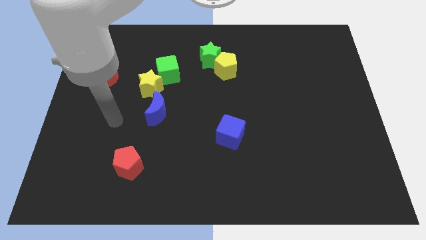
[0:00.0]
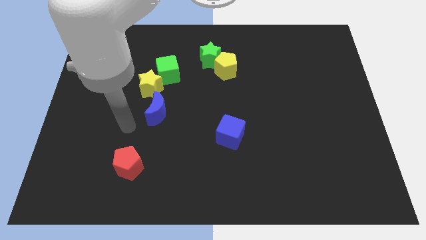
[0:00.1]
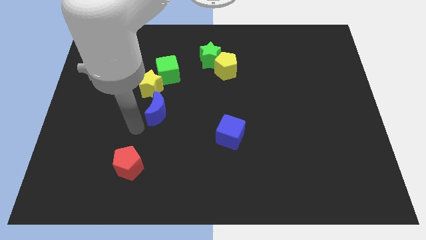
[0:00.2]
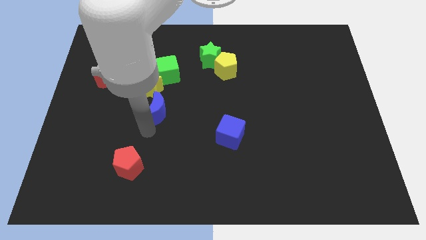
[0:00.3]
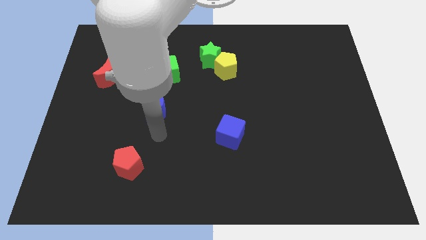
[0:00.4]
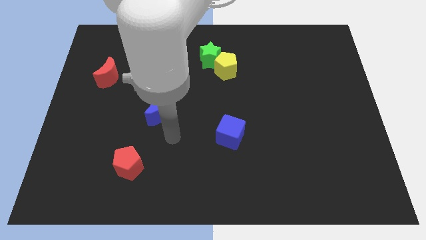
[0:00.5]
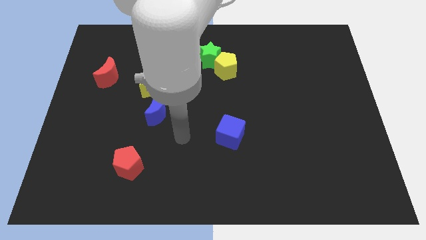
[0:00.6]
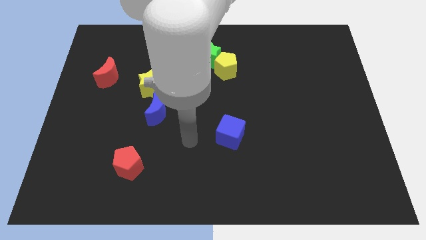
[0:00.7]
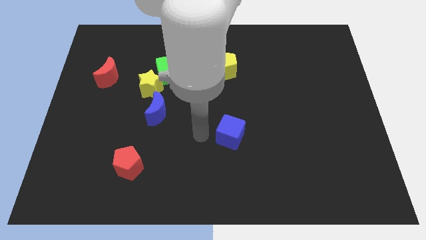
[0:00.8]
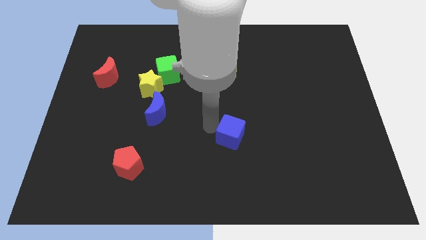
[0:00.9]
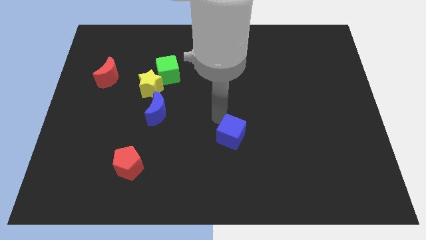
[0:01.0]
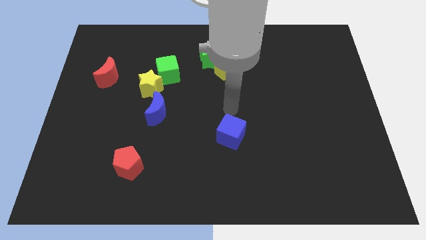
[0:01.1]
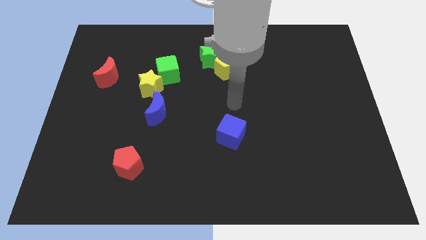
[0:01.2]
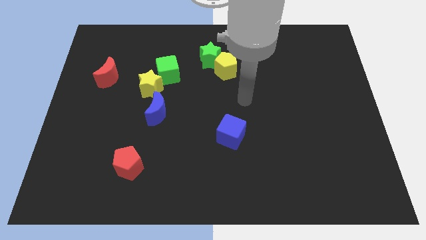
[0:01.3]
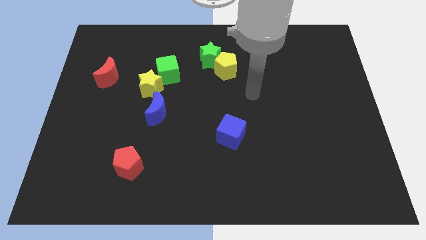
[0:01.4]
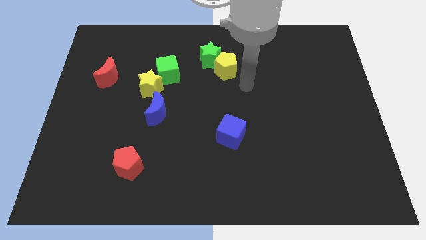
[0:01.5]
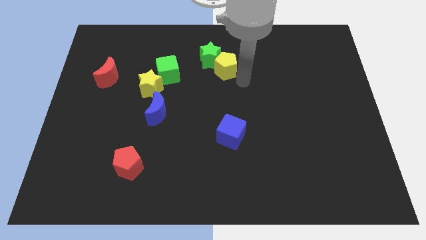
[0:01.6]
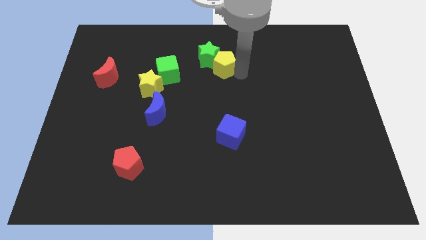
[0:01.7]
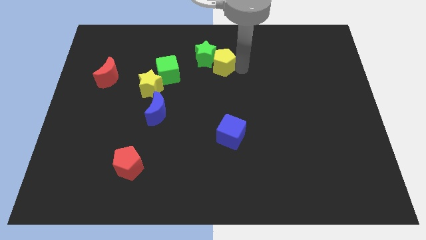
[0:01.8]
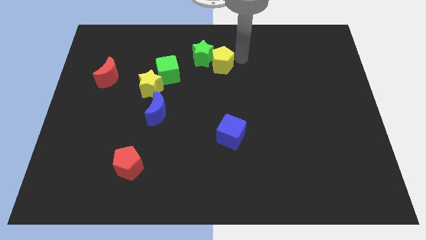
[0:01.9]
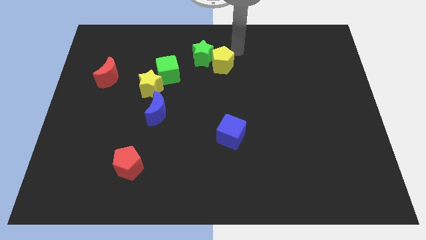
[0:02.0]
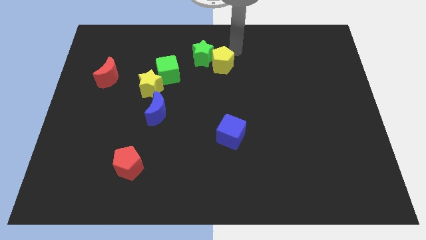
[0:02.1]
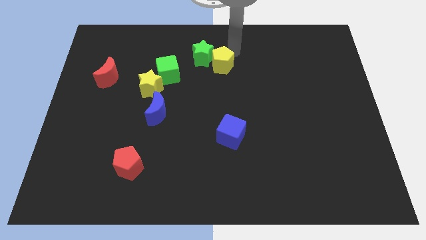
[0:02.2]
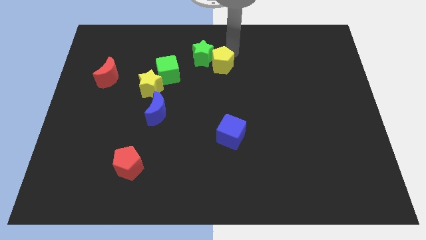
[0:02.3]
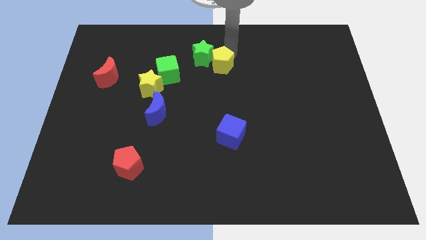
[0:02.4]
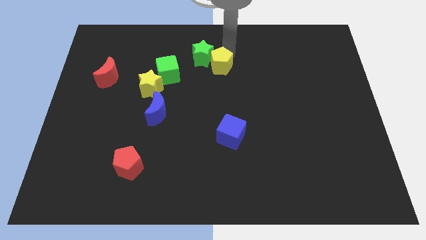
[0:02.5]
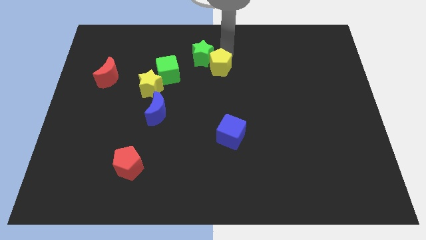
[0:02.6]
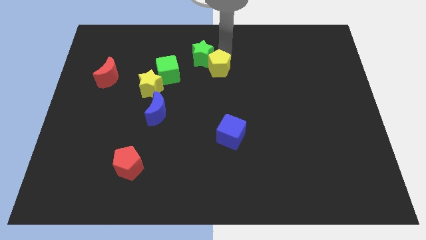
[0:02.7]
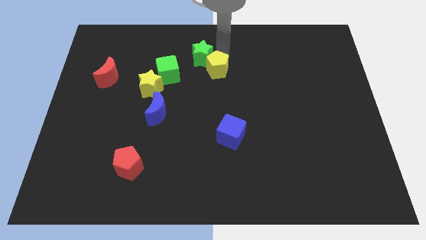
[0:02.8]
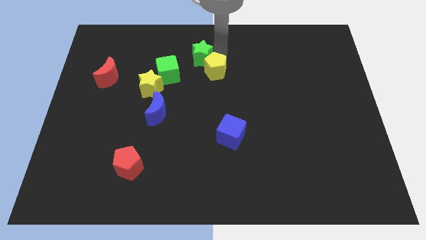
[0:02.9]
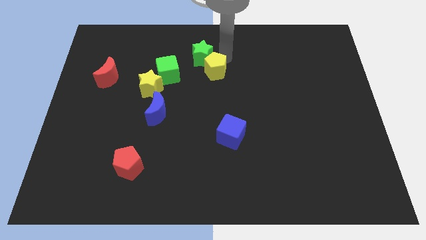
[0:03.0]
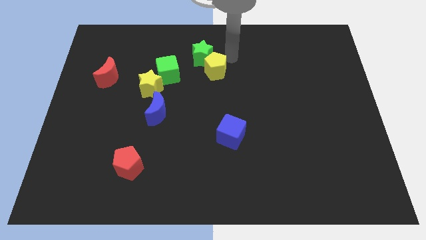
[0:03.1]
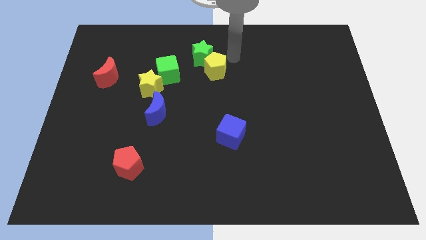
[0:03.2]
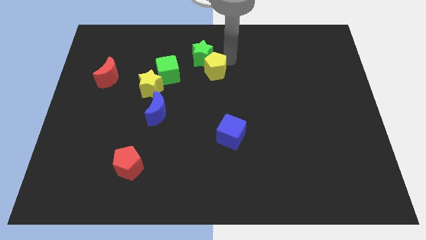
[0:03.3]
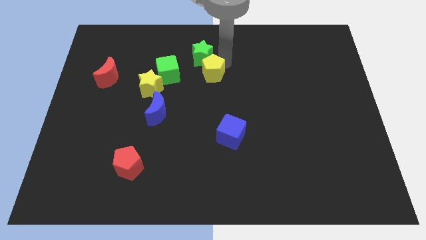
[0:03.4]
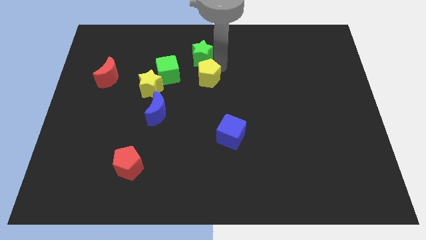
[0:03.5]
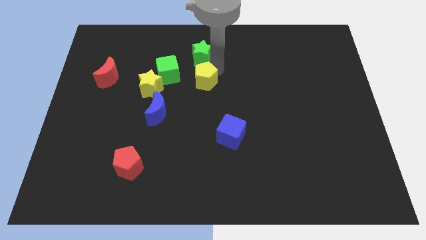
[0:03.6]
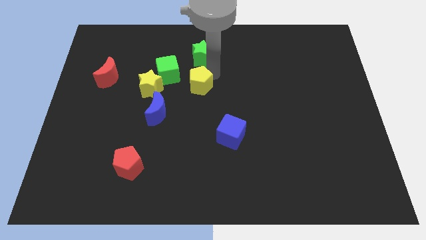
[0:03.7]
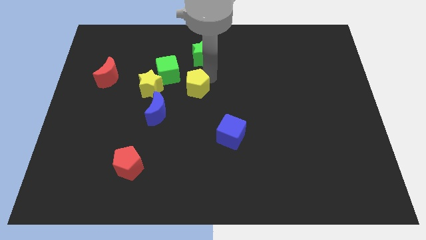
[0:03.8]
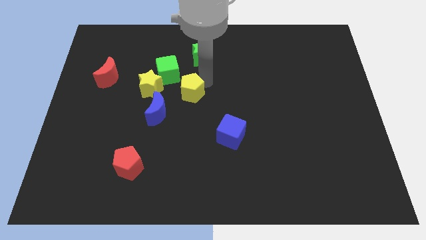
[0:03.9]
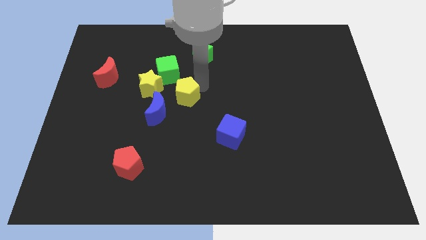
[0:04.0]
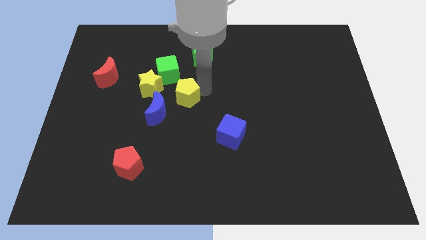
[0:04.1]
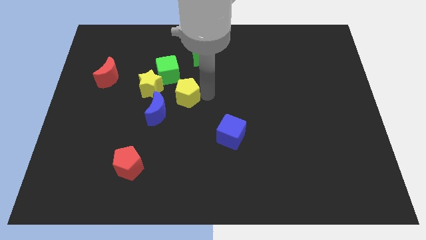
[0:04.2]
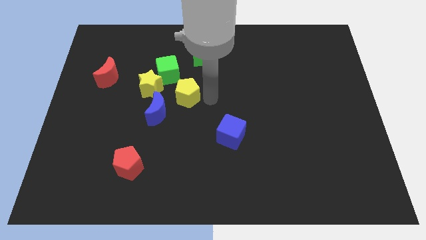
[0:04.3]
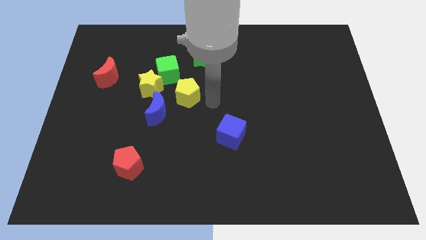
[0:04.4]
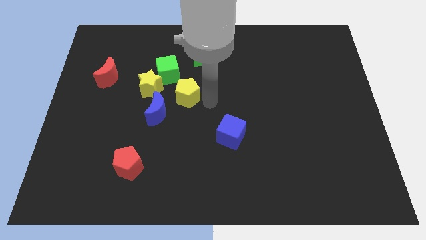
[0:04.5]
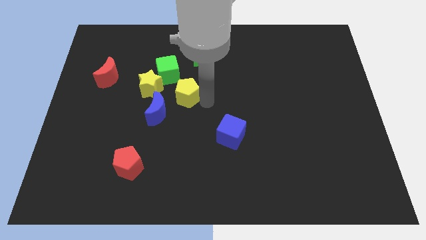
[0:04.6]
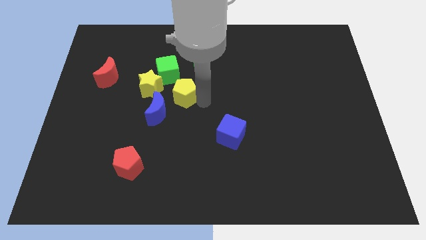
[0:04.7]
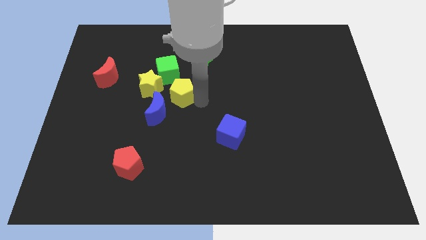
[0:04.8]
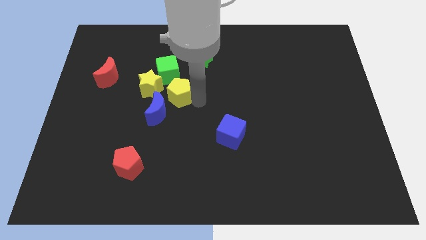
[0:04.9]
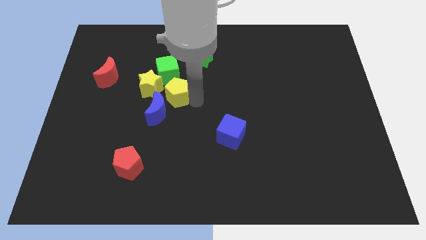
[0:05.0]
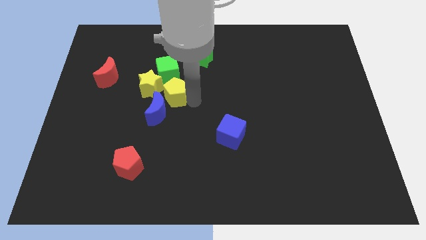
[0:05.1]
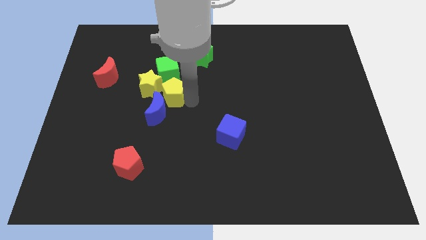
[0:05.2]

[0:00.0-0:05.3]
slide the yellow pentagon next to the yellow star

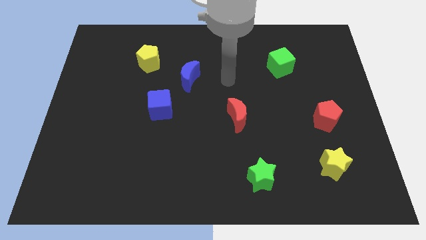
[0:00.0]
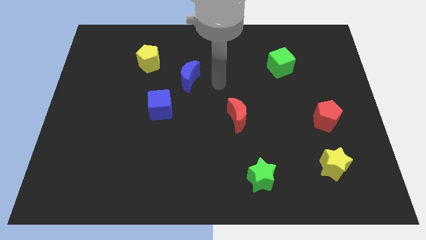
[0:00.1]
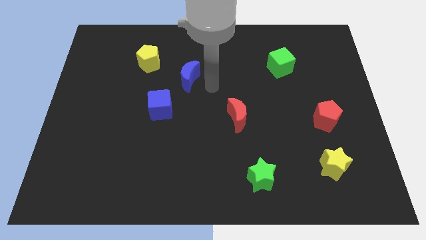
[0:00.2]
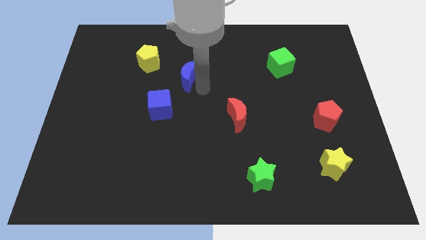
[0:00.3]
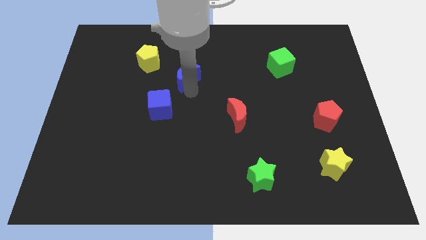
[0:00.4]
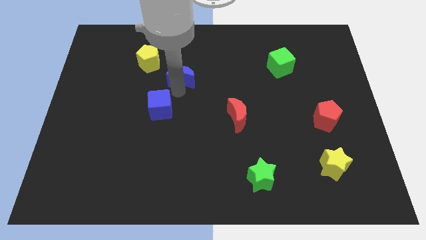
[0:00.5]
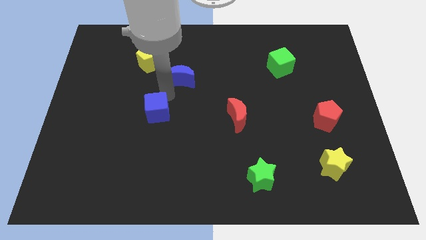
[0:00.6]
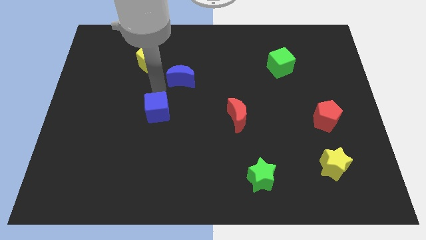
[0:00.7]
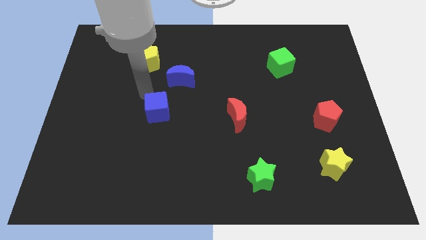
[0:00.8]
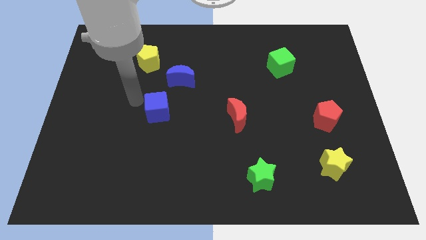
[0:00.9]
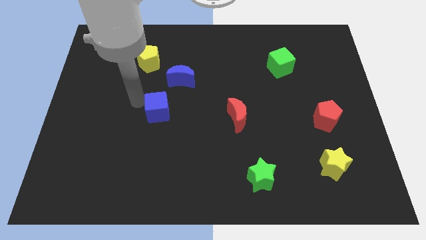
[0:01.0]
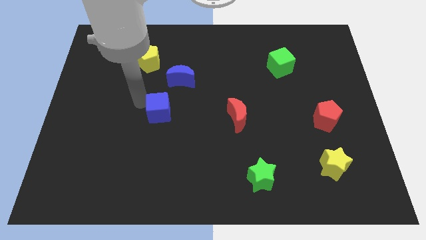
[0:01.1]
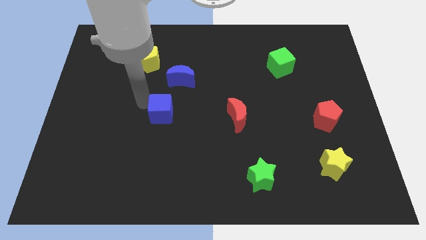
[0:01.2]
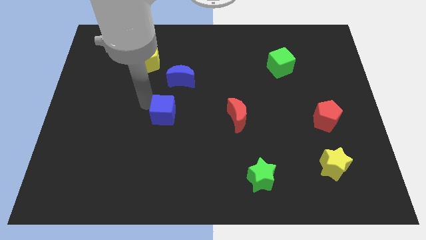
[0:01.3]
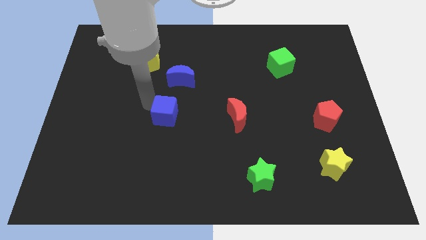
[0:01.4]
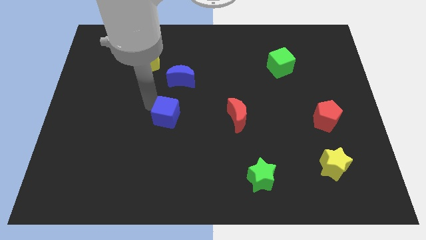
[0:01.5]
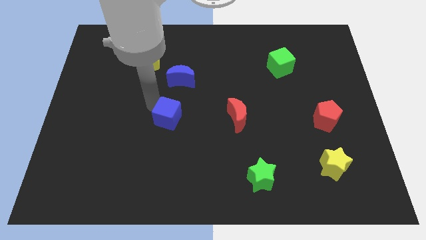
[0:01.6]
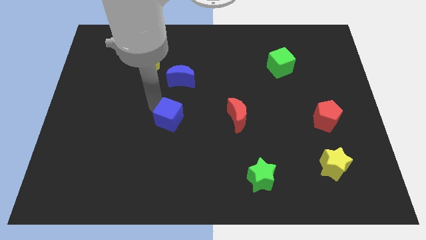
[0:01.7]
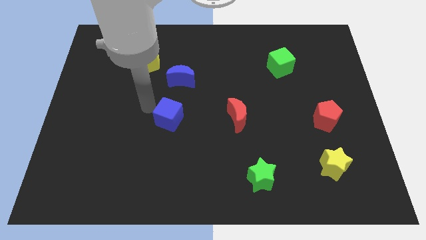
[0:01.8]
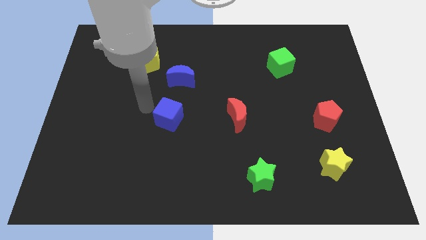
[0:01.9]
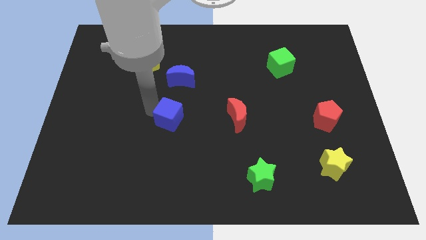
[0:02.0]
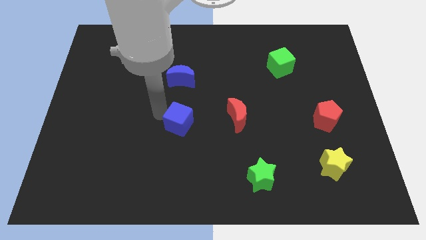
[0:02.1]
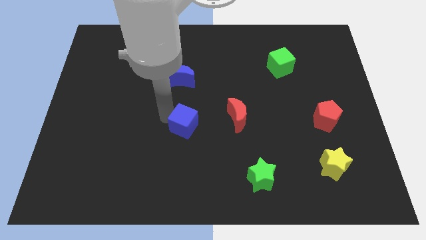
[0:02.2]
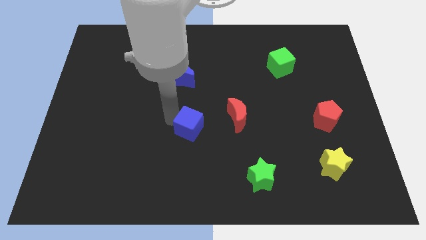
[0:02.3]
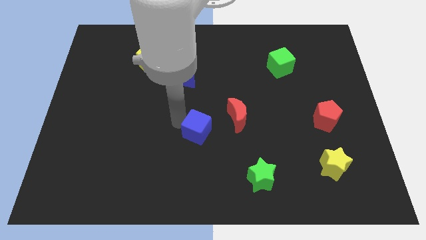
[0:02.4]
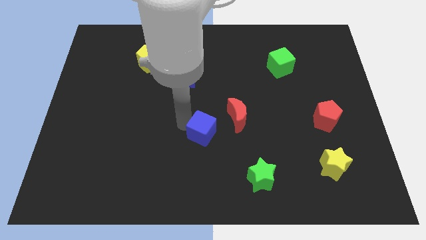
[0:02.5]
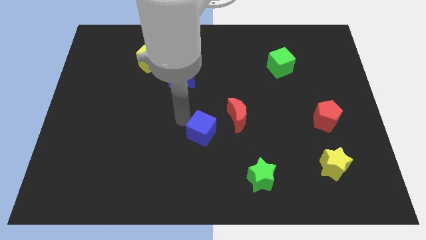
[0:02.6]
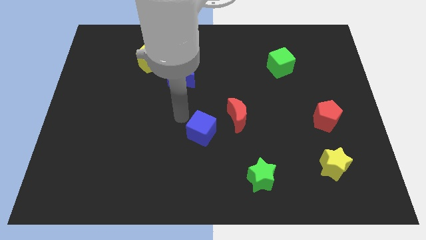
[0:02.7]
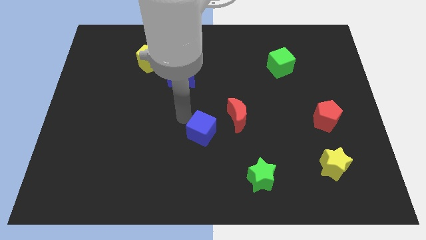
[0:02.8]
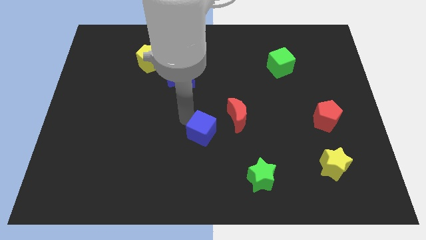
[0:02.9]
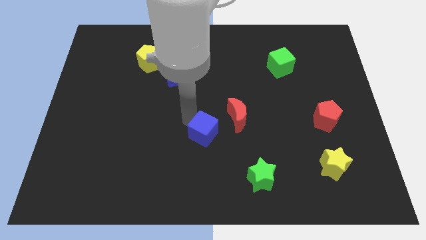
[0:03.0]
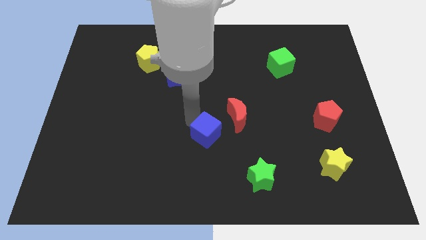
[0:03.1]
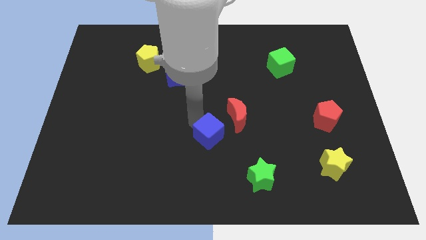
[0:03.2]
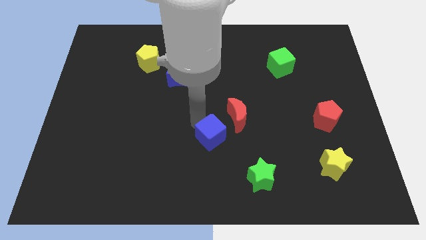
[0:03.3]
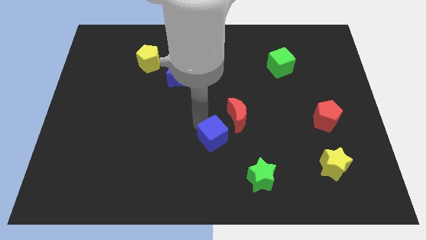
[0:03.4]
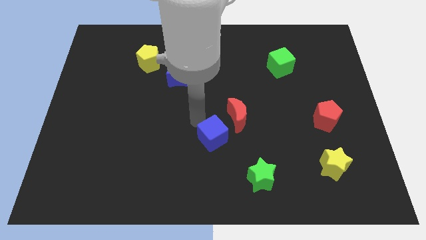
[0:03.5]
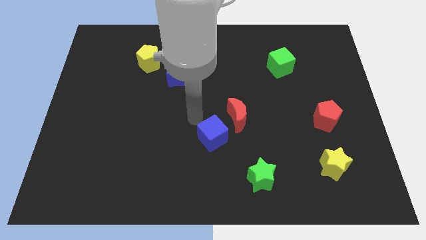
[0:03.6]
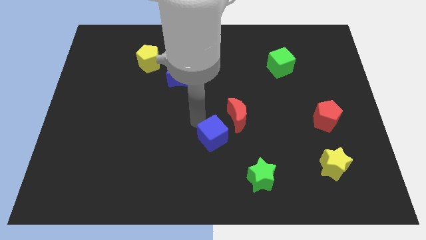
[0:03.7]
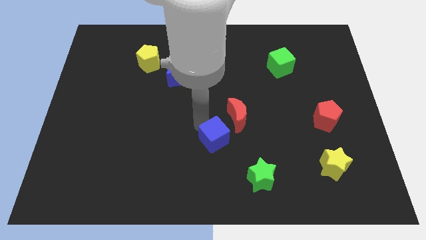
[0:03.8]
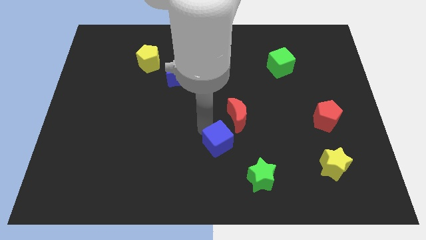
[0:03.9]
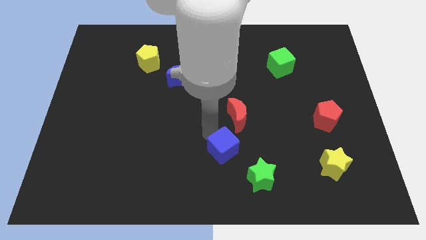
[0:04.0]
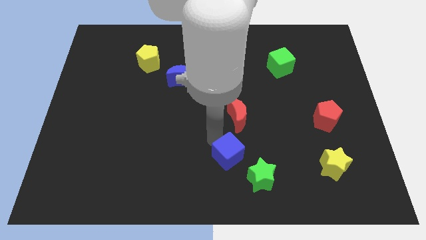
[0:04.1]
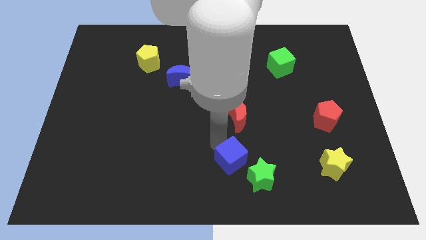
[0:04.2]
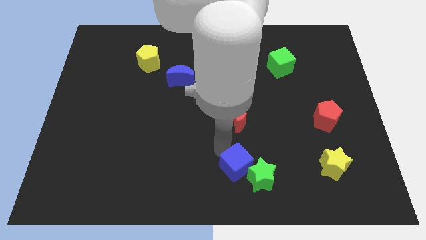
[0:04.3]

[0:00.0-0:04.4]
slide the blue cube next to the green star
